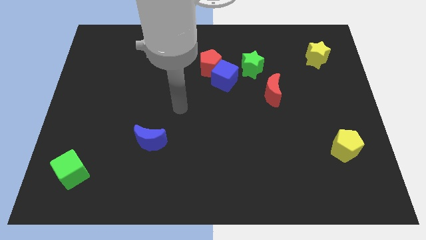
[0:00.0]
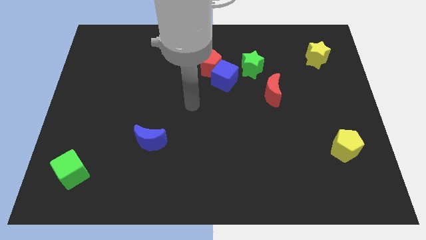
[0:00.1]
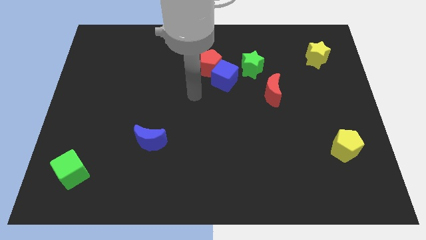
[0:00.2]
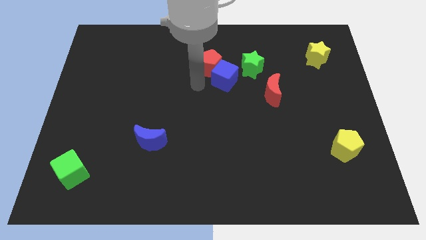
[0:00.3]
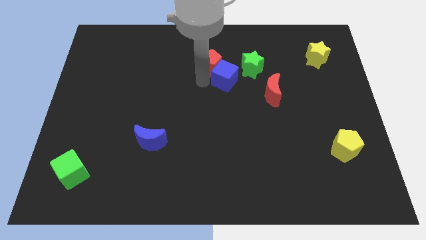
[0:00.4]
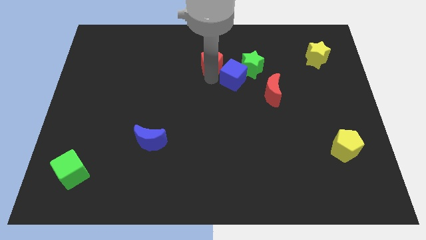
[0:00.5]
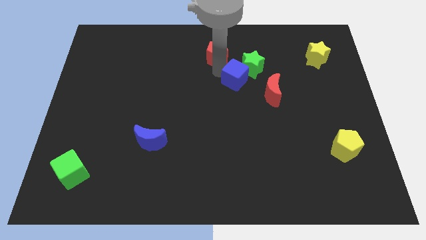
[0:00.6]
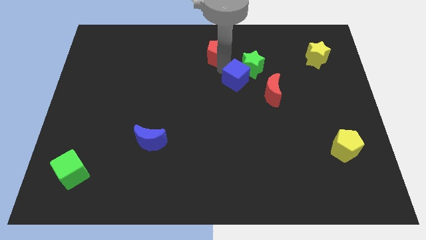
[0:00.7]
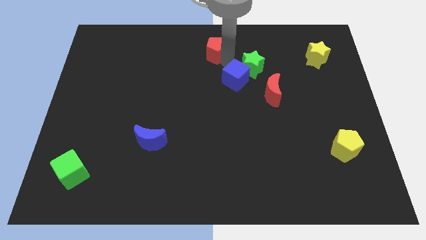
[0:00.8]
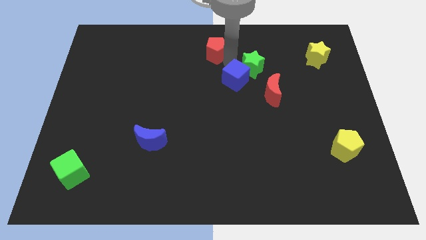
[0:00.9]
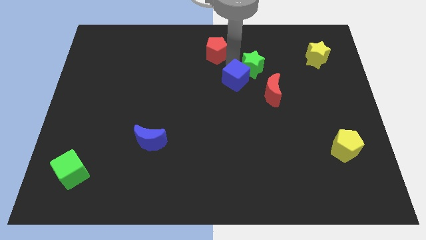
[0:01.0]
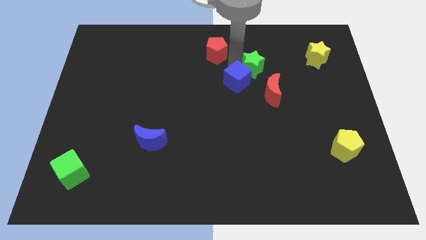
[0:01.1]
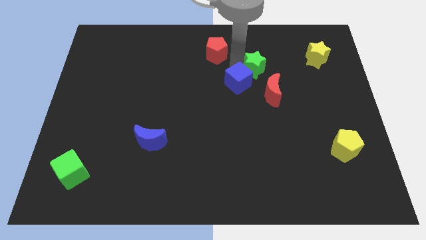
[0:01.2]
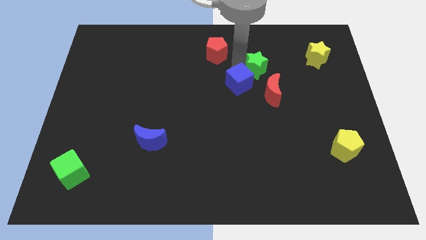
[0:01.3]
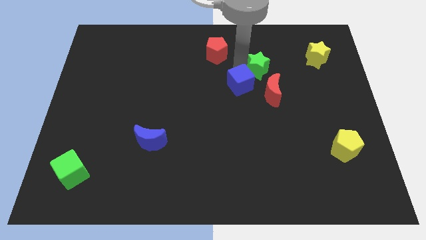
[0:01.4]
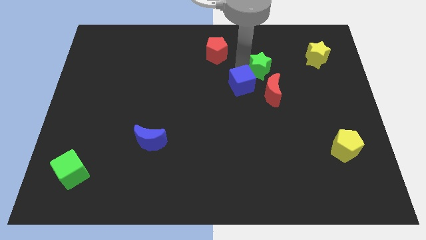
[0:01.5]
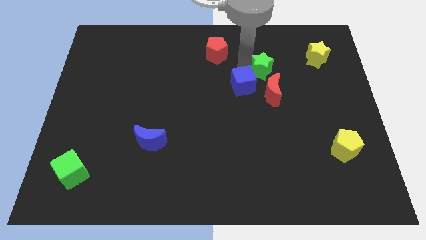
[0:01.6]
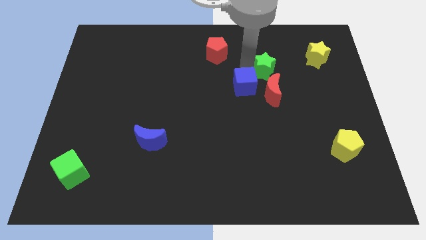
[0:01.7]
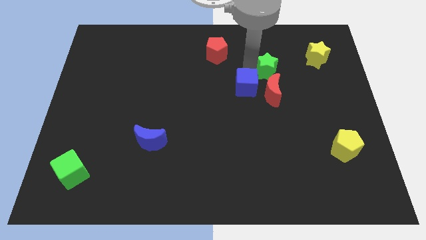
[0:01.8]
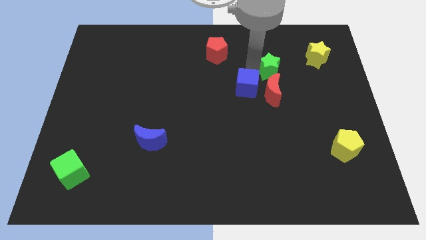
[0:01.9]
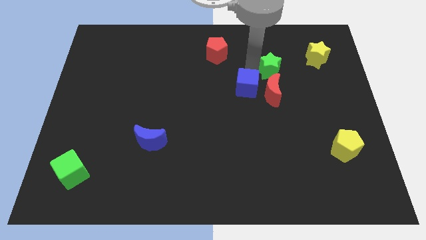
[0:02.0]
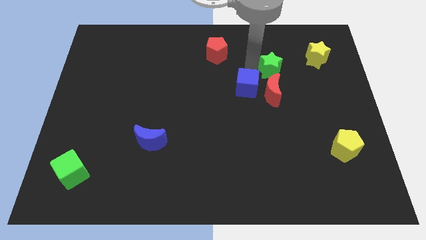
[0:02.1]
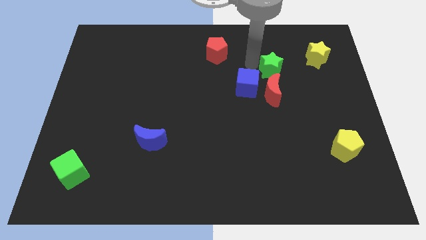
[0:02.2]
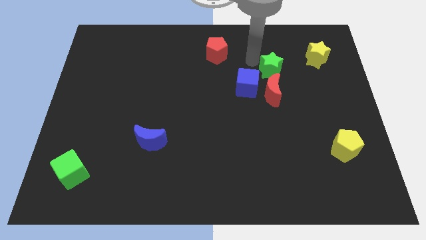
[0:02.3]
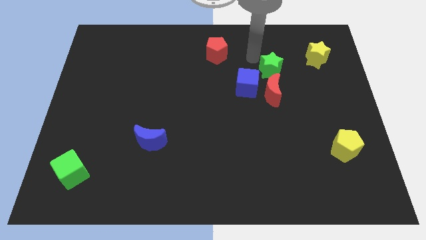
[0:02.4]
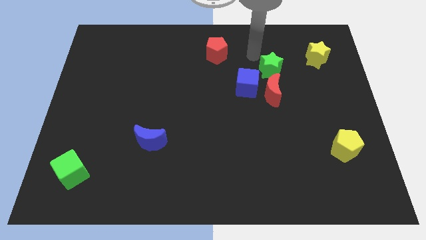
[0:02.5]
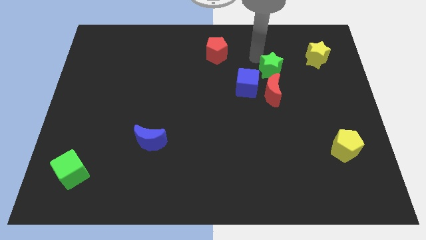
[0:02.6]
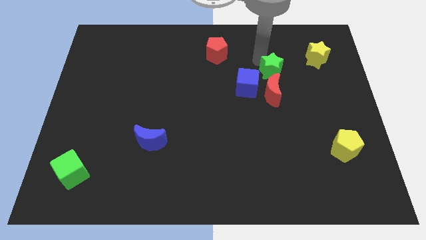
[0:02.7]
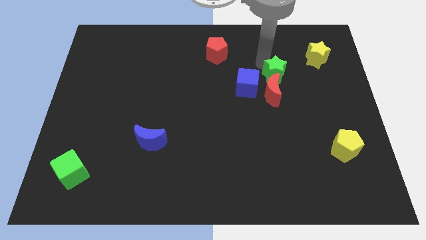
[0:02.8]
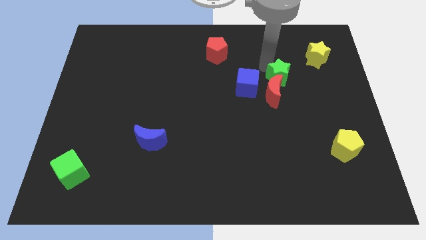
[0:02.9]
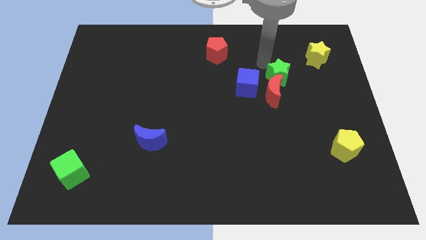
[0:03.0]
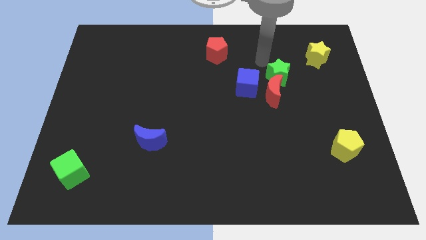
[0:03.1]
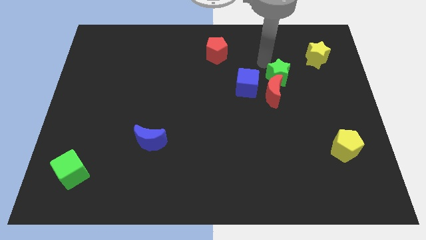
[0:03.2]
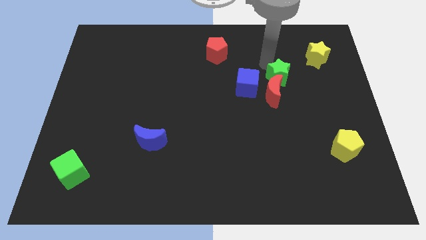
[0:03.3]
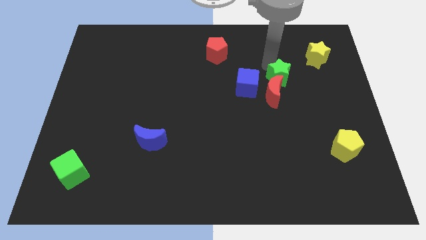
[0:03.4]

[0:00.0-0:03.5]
slightly push the green star diagonally downwards and to the right

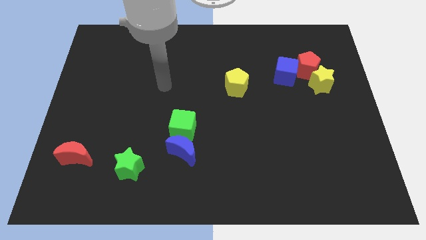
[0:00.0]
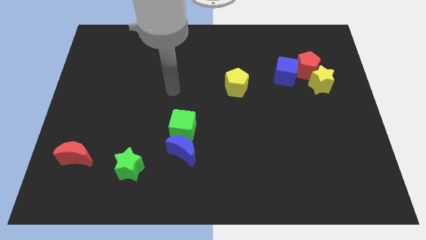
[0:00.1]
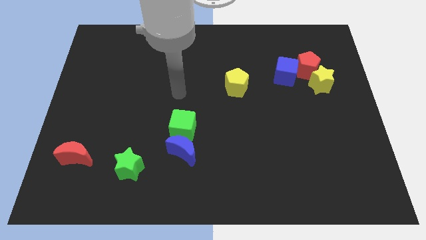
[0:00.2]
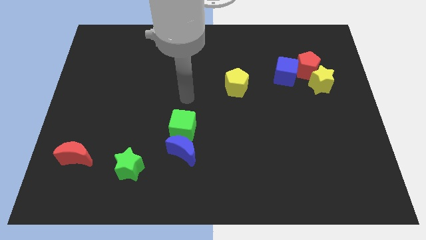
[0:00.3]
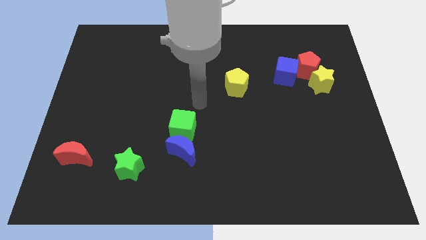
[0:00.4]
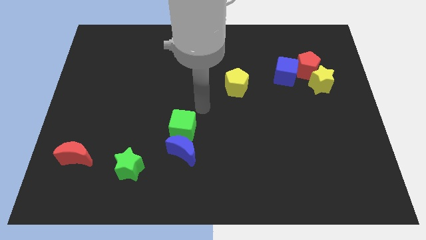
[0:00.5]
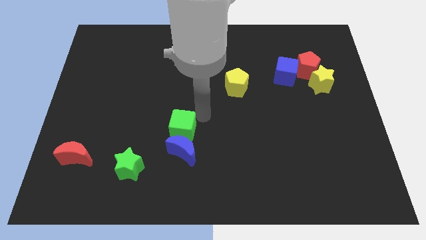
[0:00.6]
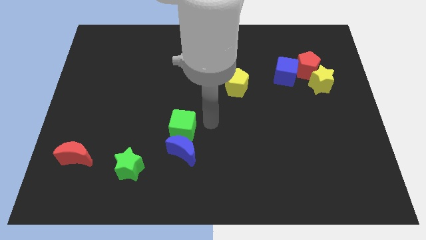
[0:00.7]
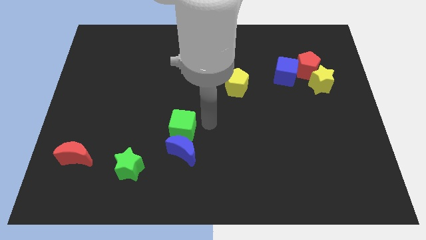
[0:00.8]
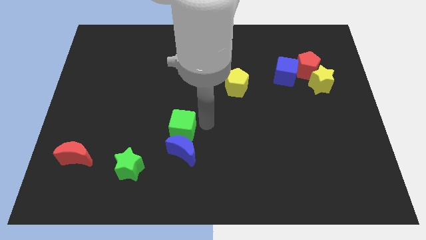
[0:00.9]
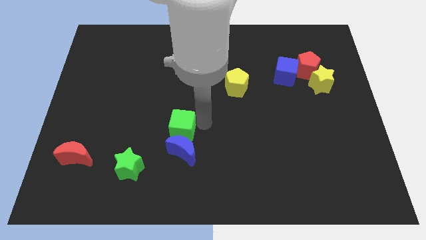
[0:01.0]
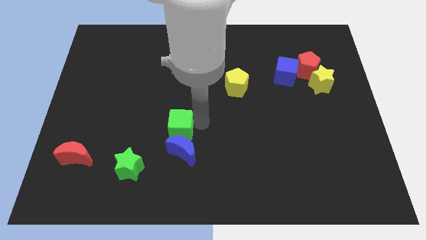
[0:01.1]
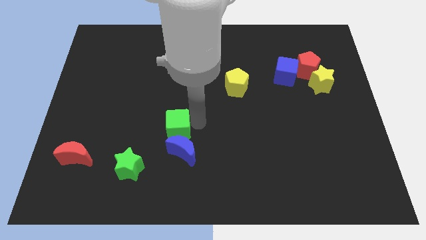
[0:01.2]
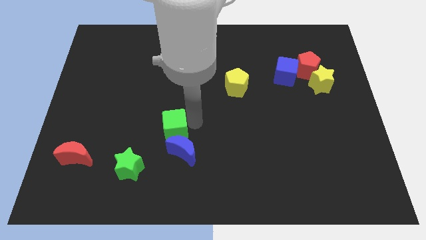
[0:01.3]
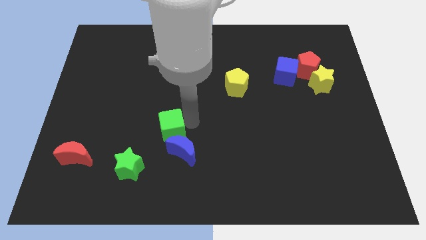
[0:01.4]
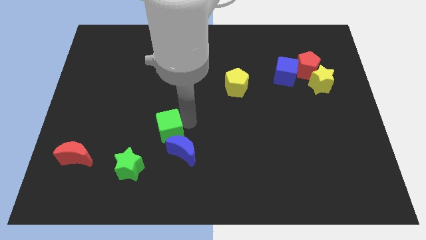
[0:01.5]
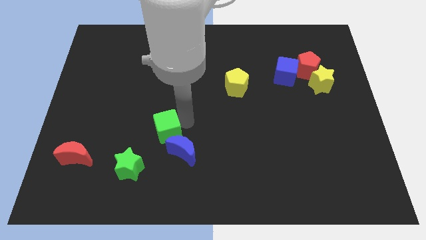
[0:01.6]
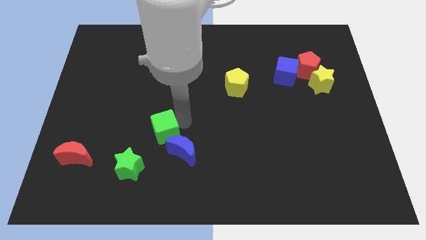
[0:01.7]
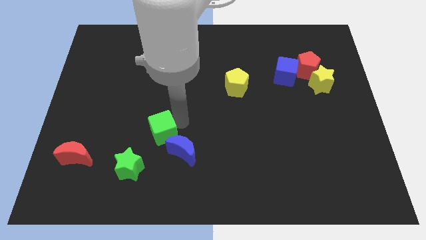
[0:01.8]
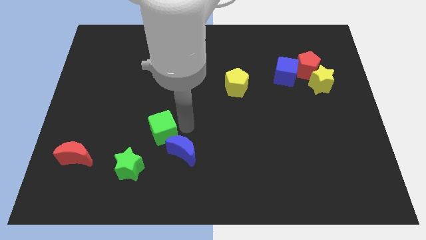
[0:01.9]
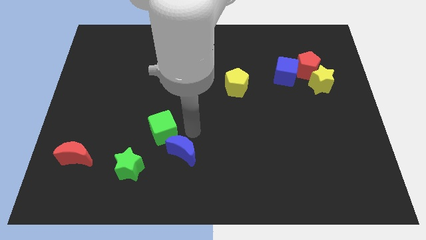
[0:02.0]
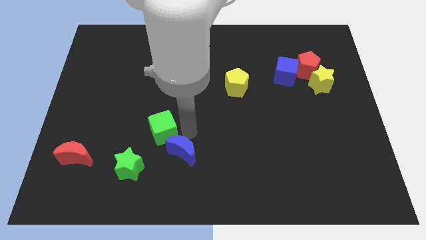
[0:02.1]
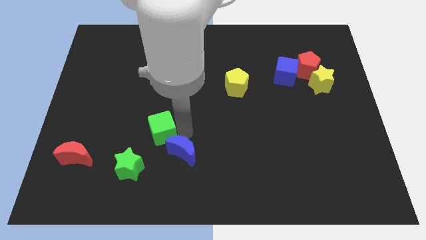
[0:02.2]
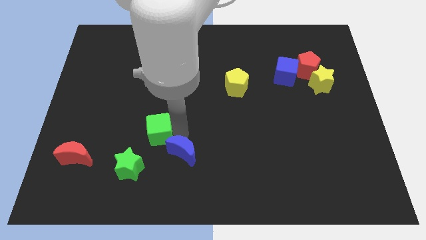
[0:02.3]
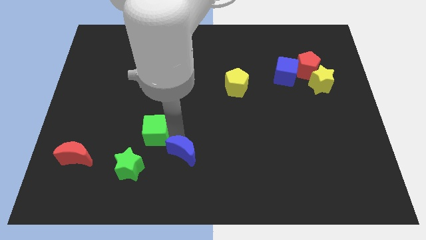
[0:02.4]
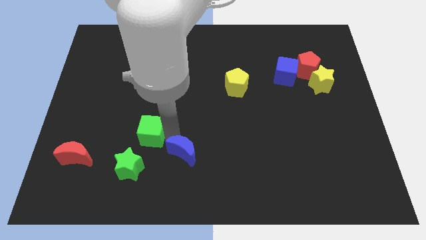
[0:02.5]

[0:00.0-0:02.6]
move the green cube to the left a little

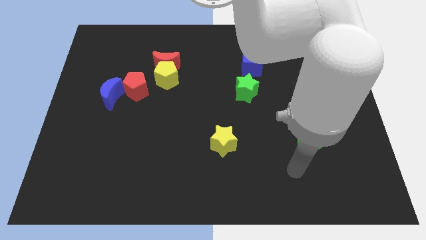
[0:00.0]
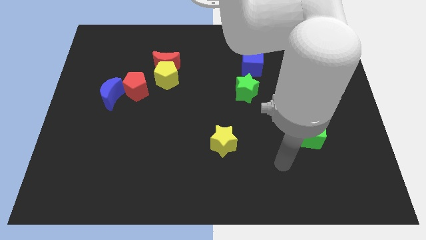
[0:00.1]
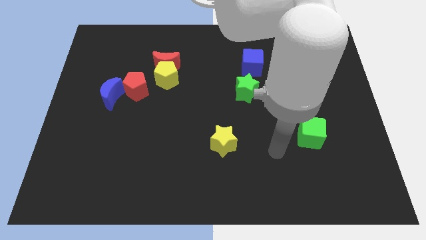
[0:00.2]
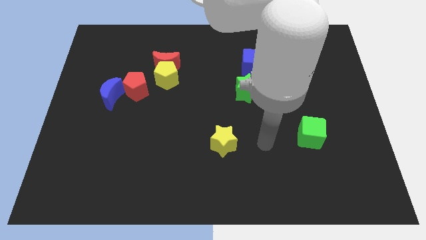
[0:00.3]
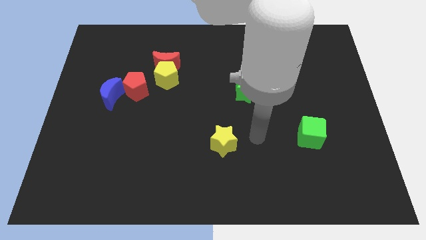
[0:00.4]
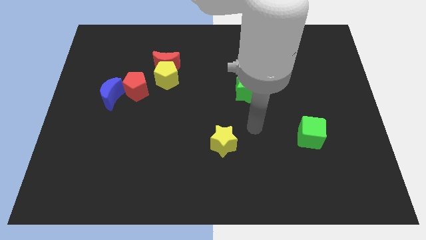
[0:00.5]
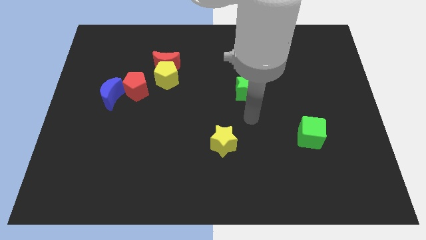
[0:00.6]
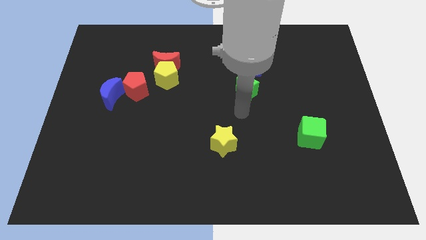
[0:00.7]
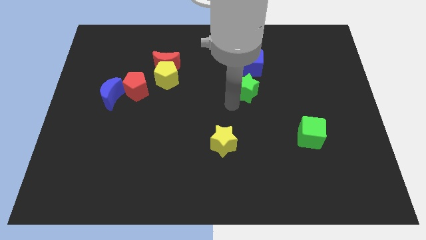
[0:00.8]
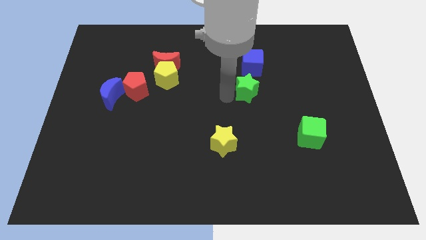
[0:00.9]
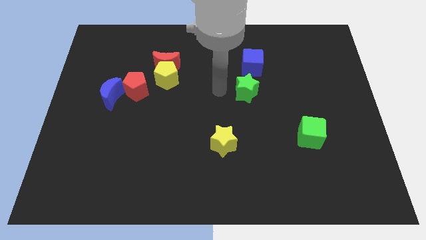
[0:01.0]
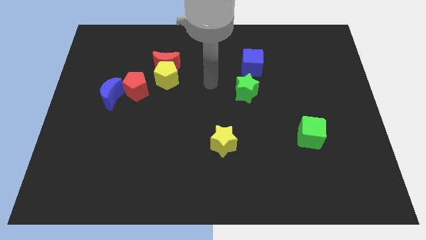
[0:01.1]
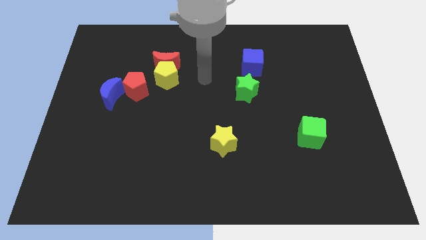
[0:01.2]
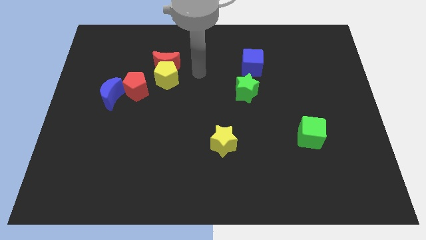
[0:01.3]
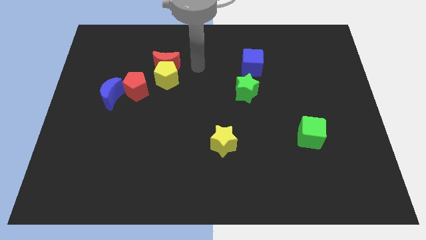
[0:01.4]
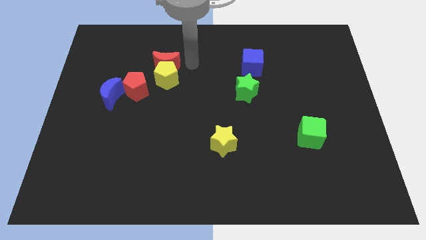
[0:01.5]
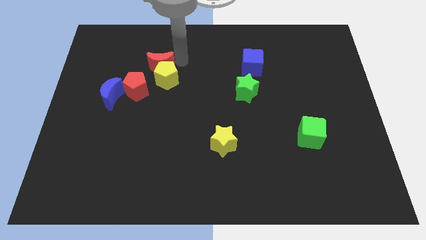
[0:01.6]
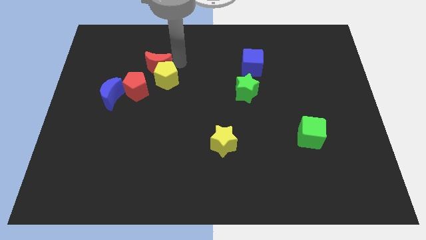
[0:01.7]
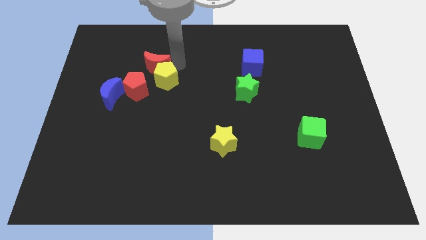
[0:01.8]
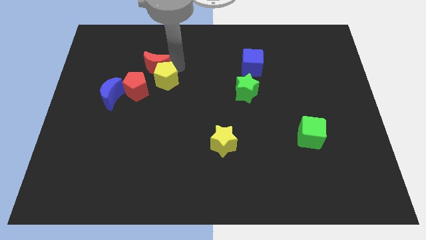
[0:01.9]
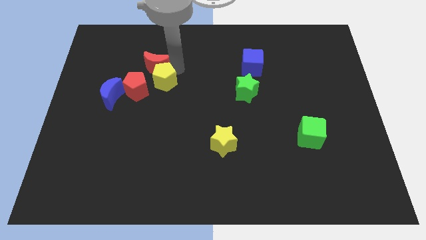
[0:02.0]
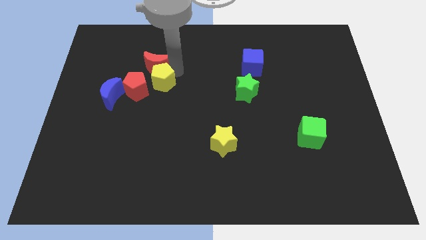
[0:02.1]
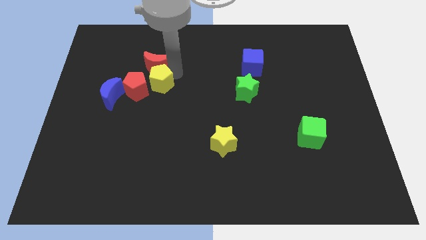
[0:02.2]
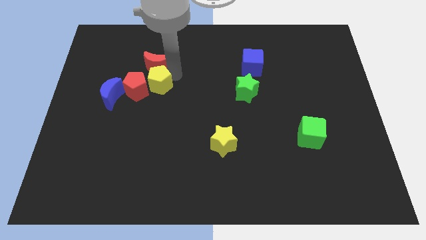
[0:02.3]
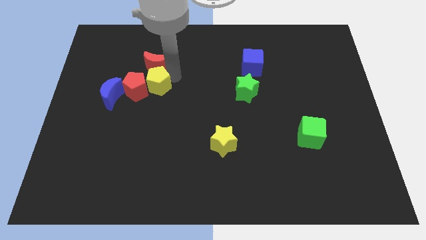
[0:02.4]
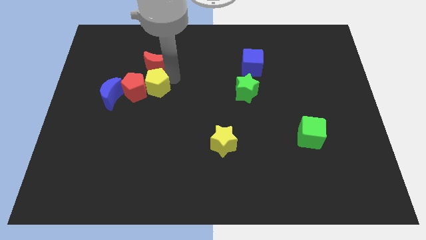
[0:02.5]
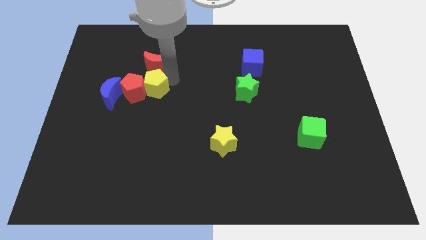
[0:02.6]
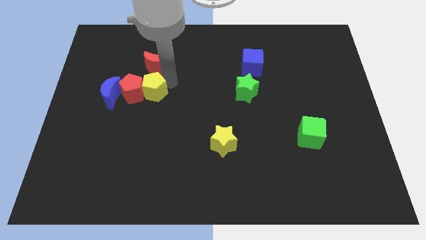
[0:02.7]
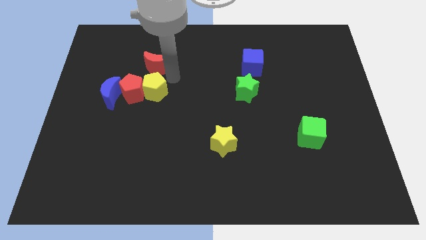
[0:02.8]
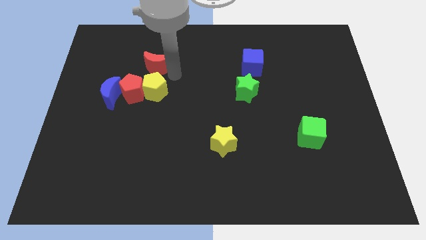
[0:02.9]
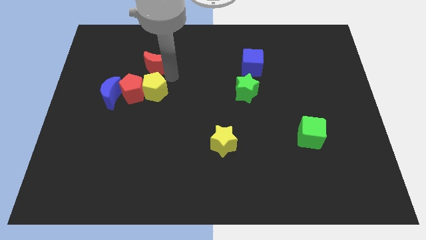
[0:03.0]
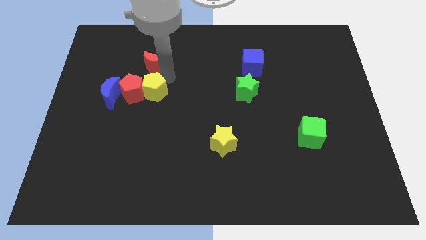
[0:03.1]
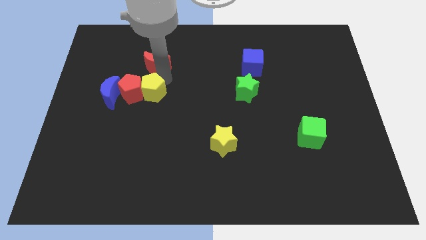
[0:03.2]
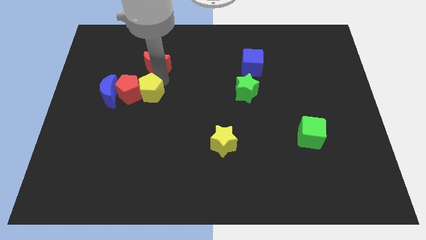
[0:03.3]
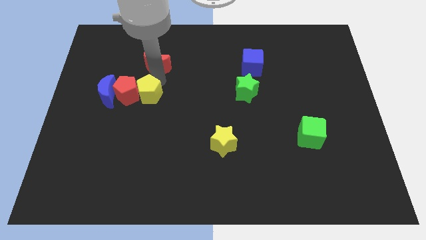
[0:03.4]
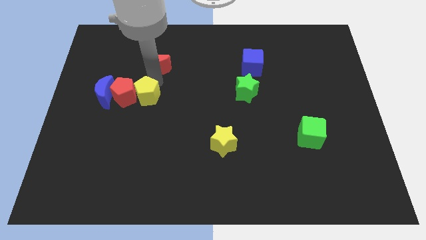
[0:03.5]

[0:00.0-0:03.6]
move the yellow pentagon a bit diagonally down and left
